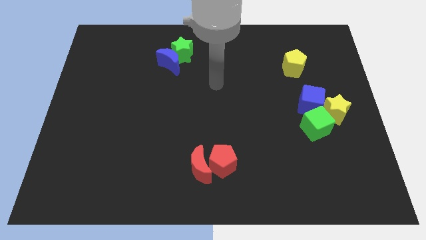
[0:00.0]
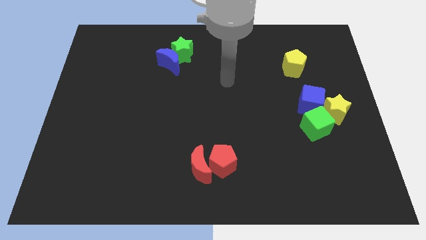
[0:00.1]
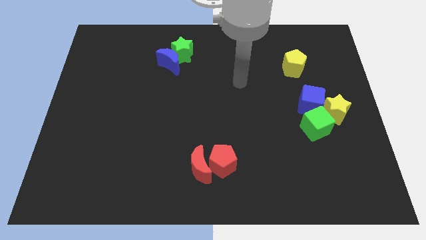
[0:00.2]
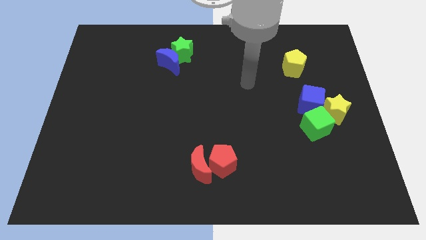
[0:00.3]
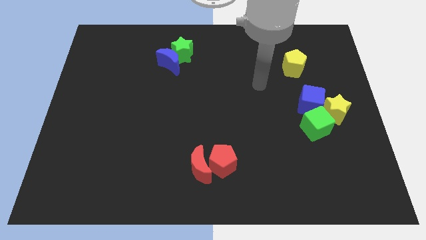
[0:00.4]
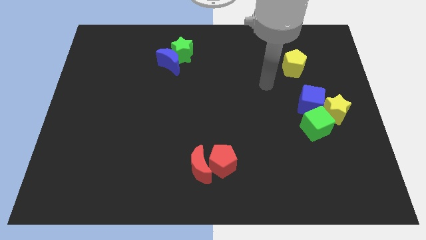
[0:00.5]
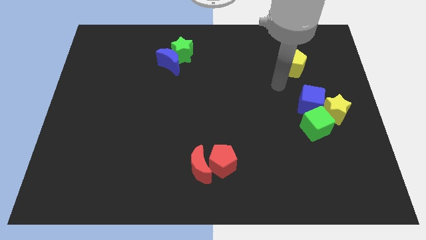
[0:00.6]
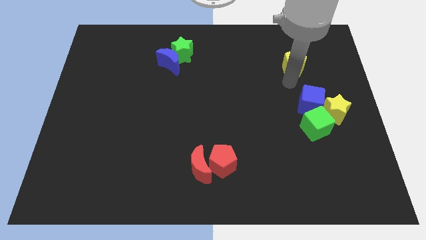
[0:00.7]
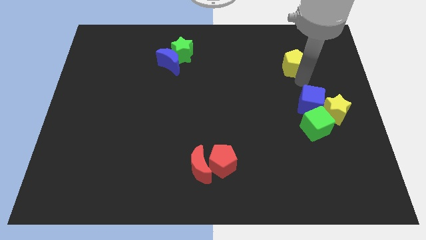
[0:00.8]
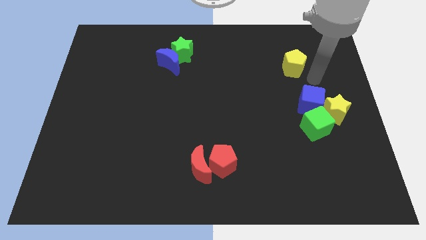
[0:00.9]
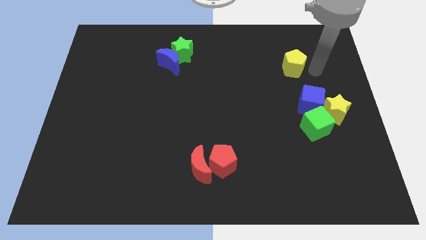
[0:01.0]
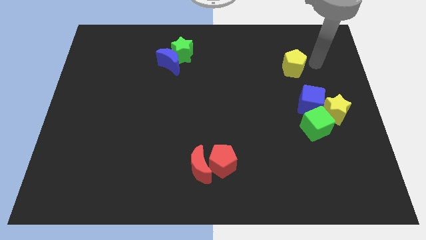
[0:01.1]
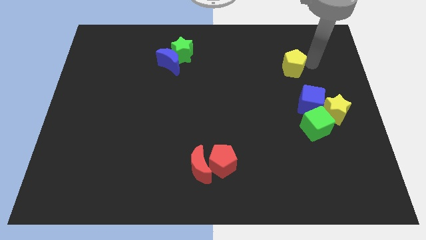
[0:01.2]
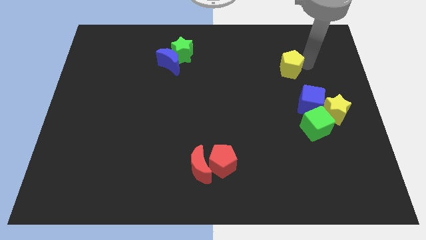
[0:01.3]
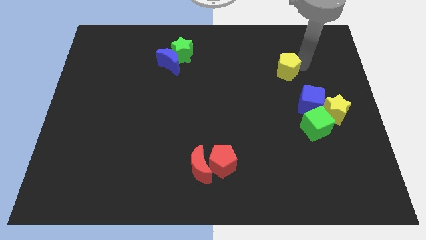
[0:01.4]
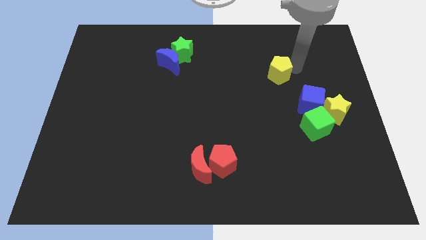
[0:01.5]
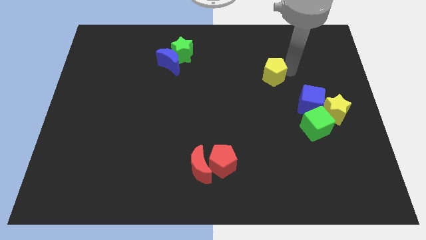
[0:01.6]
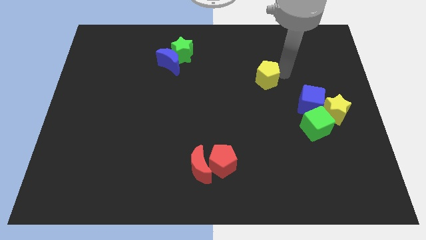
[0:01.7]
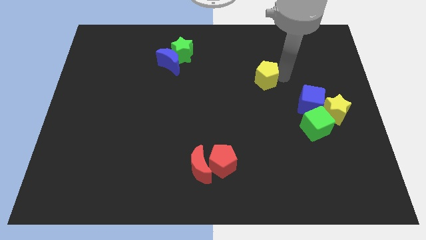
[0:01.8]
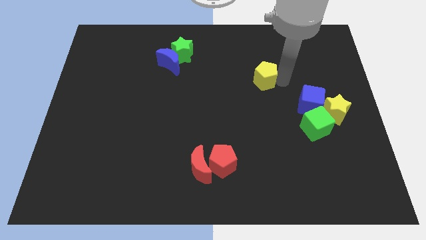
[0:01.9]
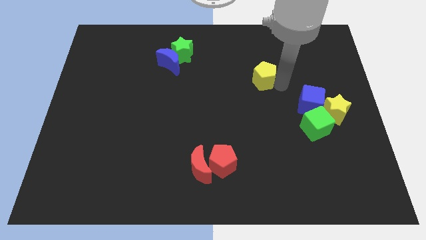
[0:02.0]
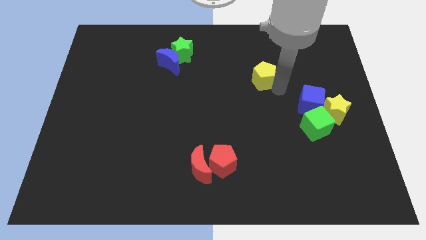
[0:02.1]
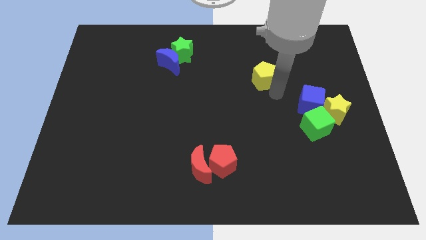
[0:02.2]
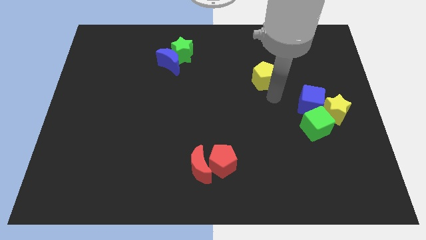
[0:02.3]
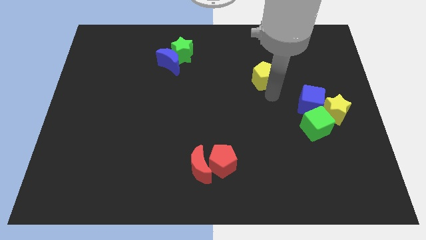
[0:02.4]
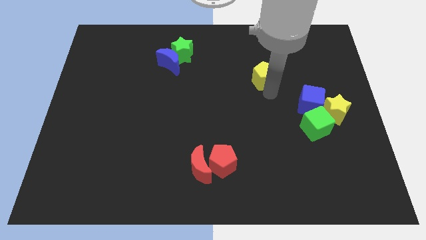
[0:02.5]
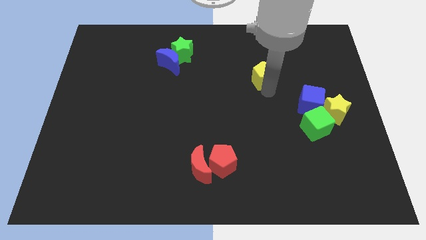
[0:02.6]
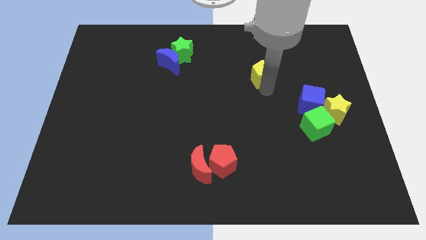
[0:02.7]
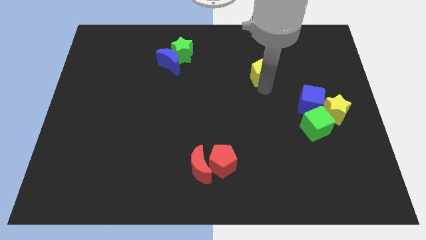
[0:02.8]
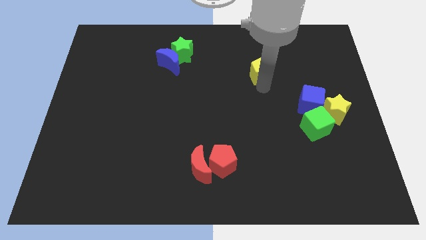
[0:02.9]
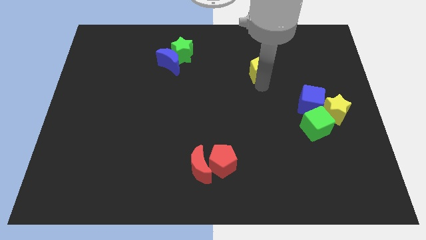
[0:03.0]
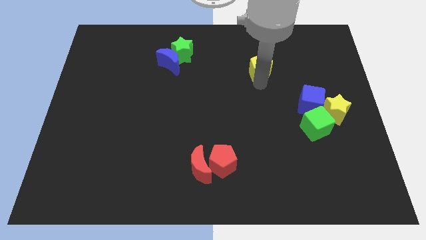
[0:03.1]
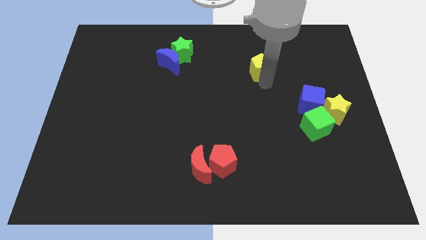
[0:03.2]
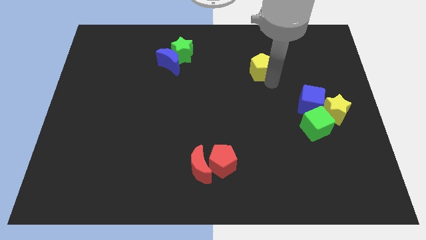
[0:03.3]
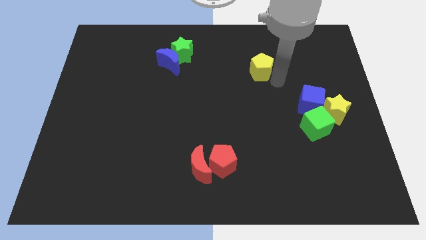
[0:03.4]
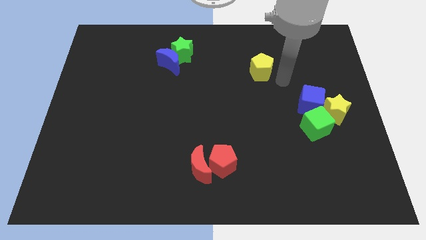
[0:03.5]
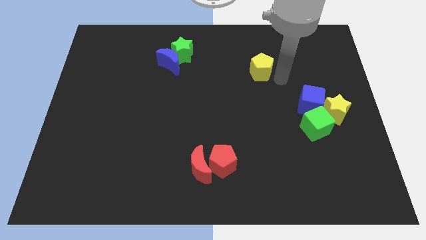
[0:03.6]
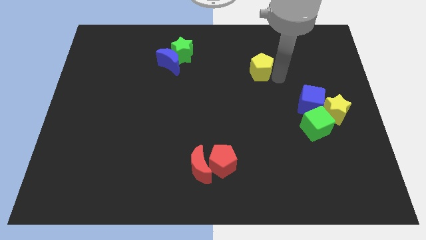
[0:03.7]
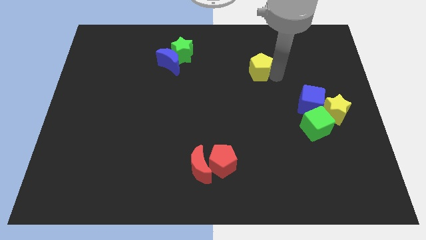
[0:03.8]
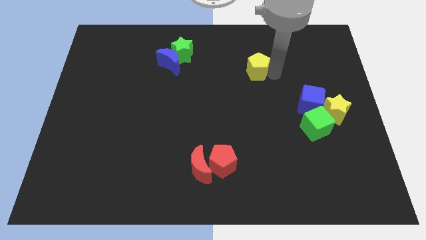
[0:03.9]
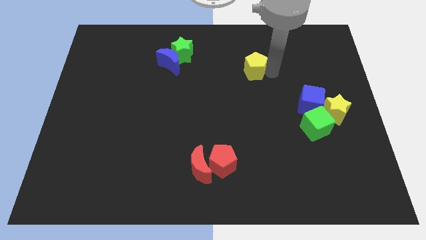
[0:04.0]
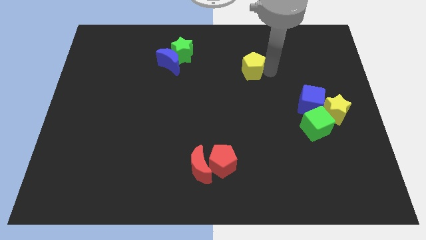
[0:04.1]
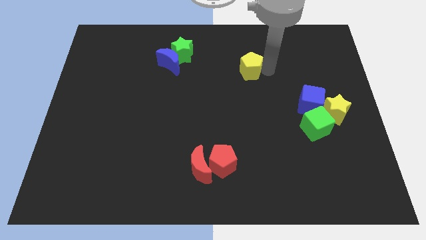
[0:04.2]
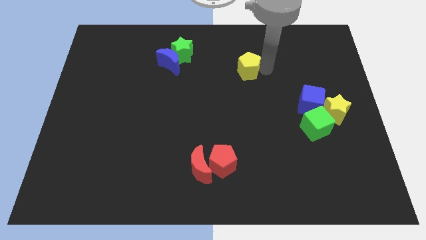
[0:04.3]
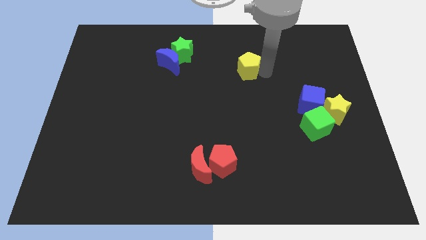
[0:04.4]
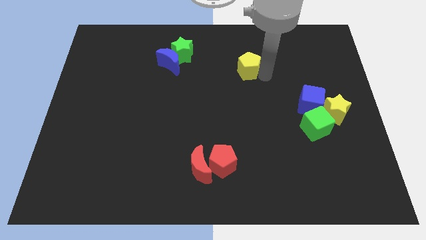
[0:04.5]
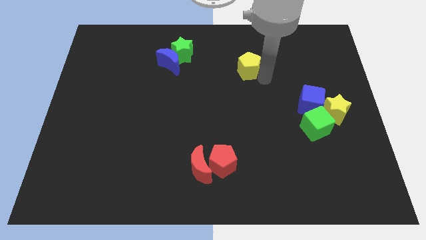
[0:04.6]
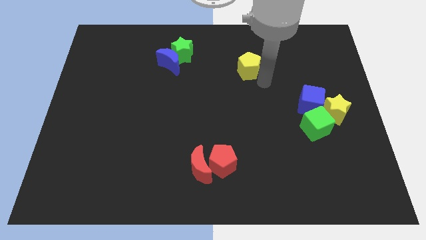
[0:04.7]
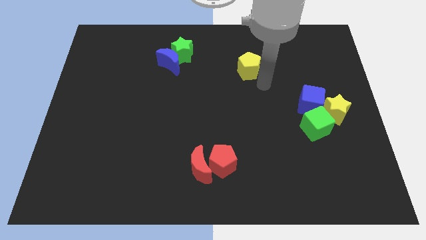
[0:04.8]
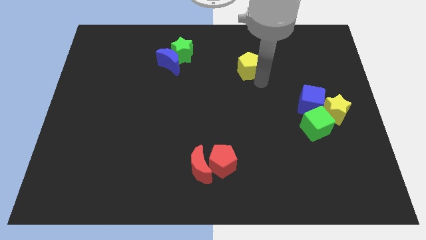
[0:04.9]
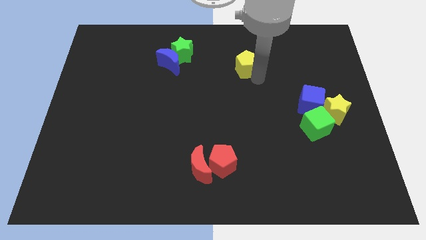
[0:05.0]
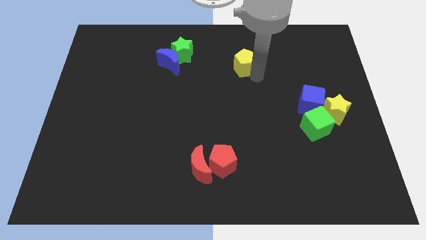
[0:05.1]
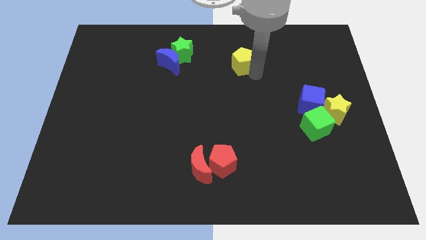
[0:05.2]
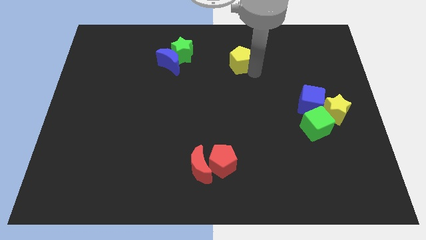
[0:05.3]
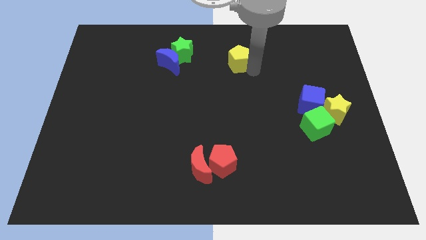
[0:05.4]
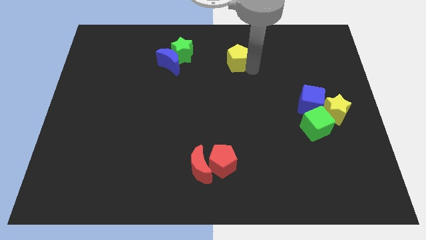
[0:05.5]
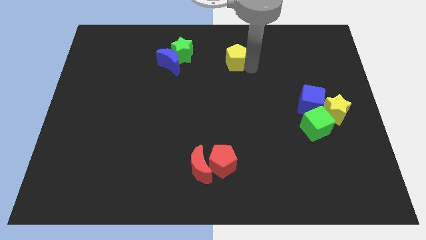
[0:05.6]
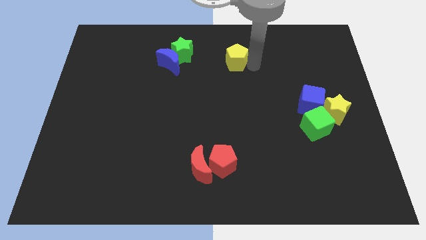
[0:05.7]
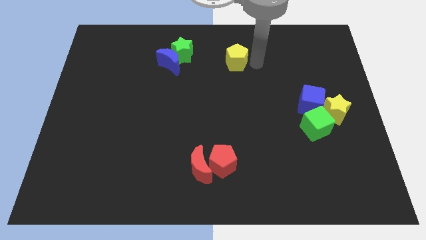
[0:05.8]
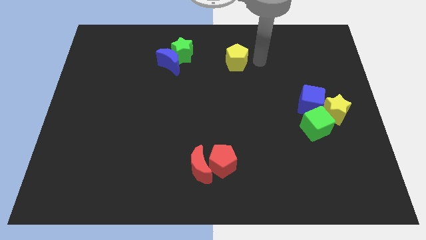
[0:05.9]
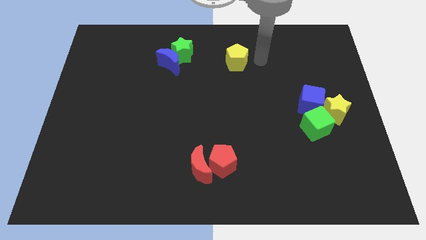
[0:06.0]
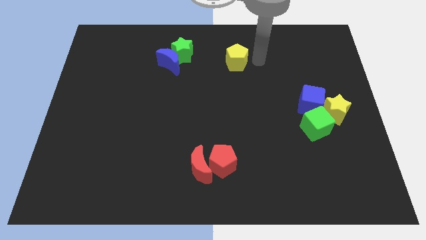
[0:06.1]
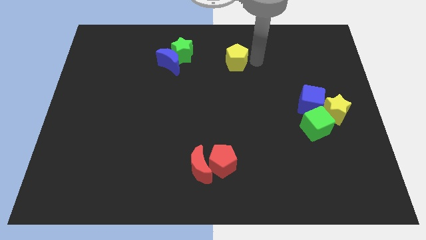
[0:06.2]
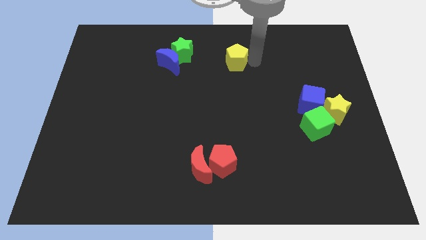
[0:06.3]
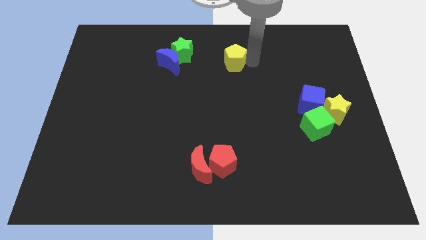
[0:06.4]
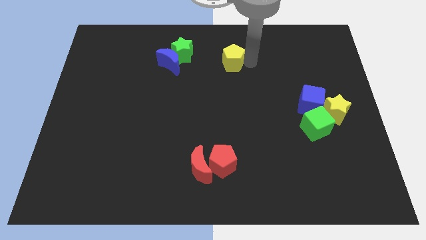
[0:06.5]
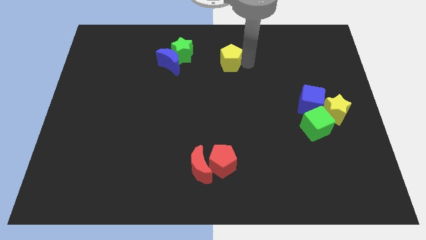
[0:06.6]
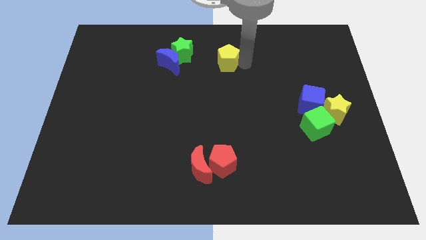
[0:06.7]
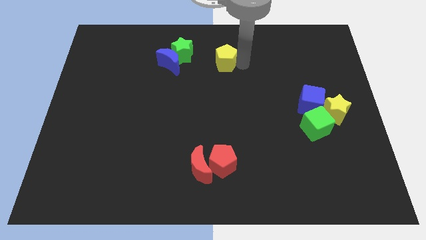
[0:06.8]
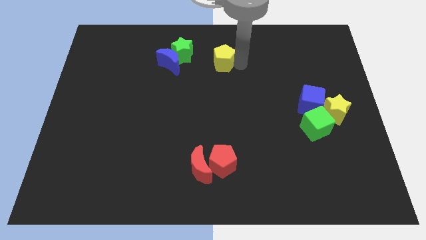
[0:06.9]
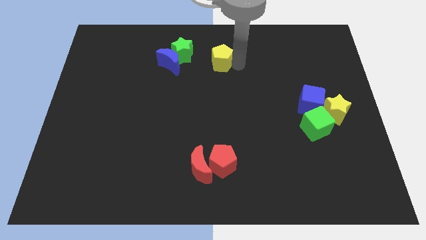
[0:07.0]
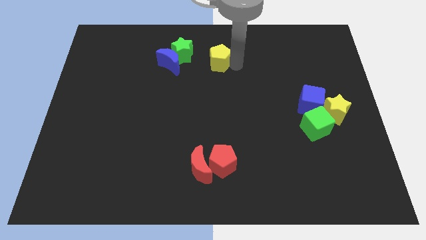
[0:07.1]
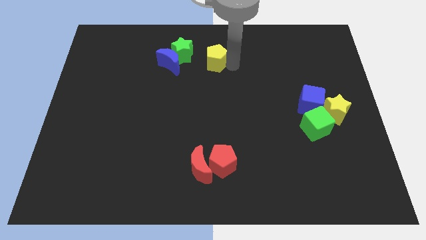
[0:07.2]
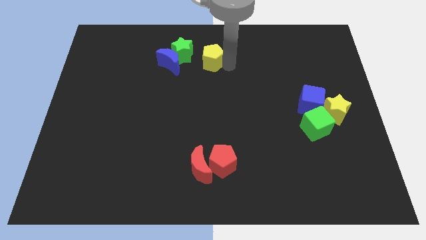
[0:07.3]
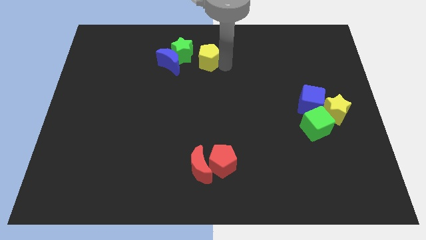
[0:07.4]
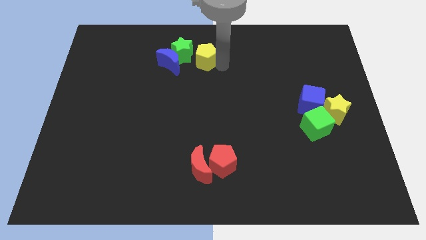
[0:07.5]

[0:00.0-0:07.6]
slide the yellow pentagon towards the green star
